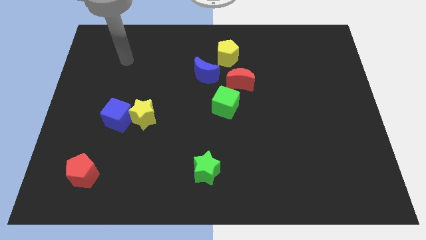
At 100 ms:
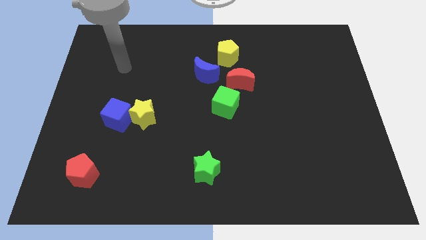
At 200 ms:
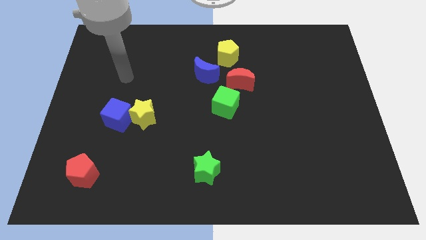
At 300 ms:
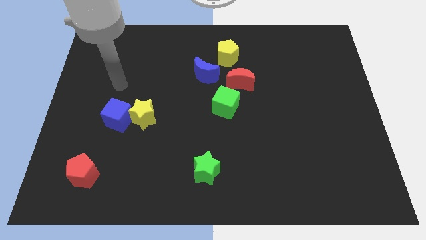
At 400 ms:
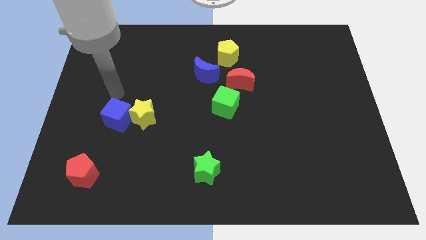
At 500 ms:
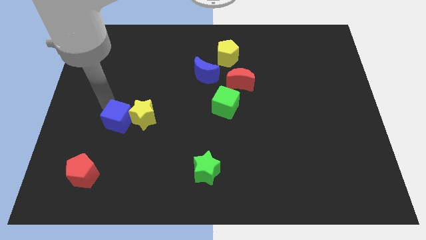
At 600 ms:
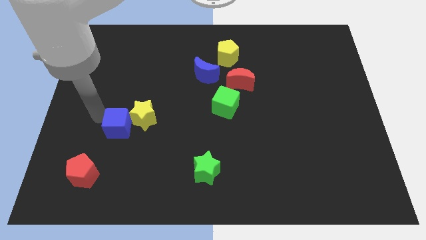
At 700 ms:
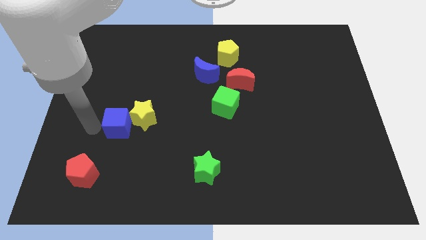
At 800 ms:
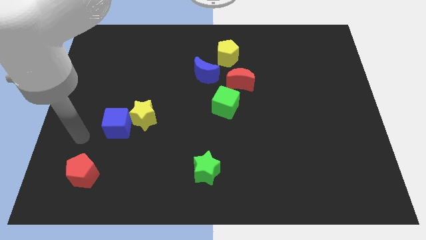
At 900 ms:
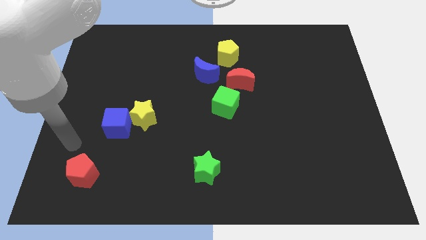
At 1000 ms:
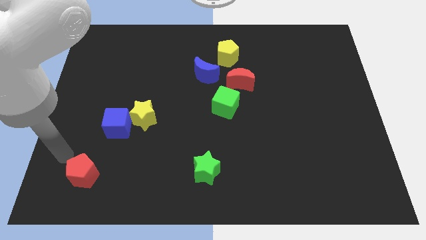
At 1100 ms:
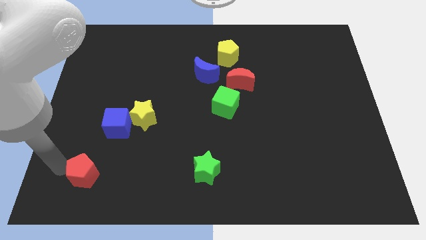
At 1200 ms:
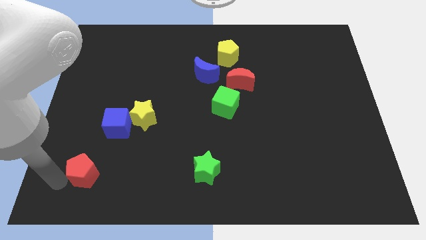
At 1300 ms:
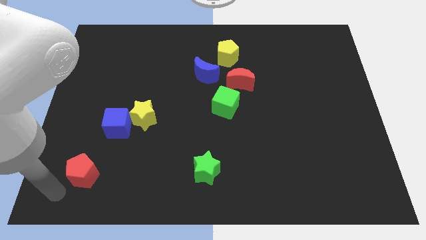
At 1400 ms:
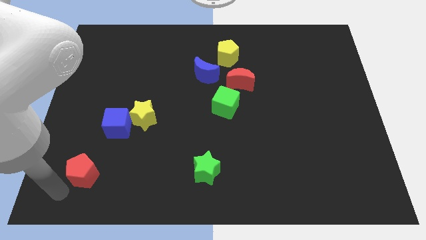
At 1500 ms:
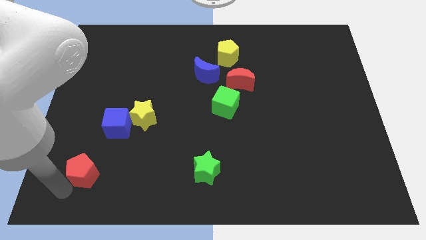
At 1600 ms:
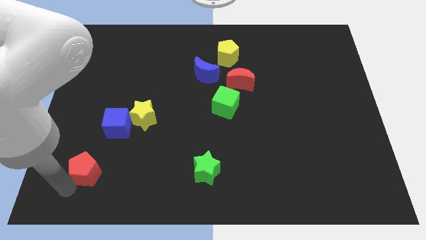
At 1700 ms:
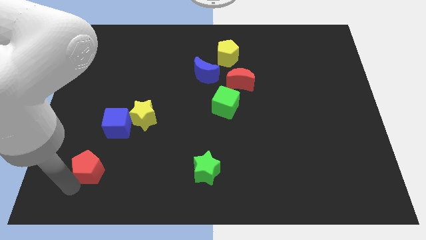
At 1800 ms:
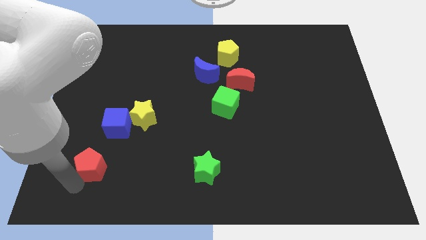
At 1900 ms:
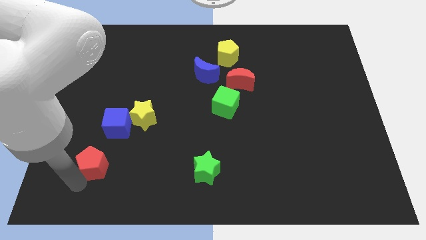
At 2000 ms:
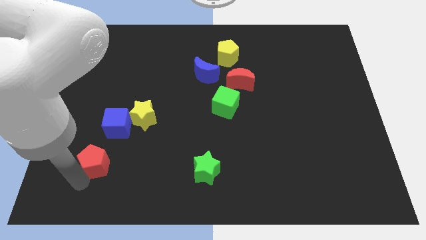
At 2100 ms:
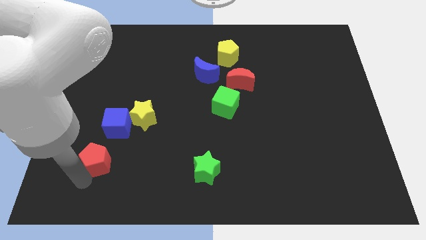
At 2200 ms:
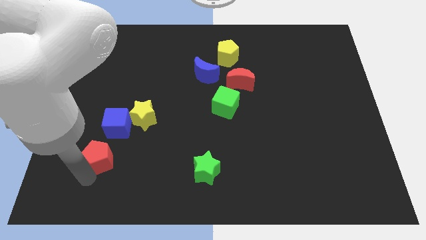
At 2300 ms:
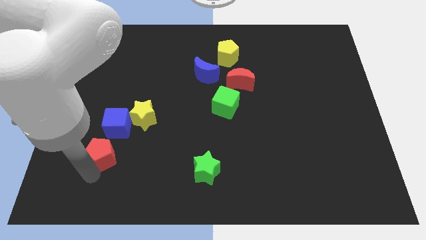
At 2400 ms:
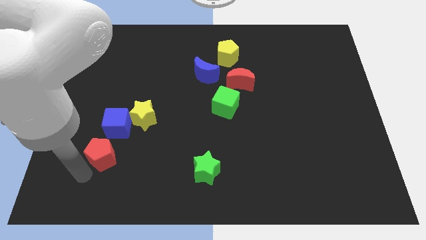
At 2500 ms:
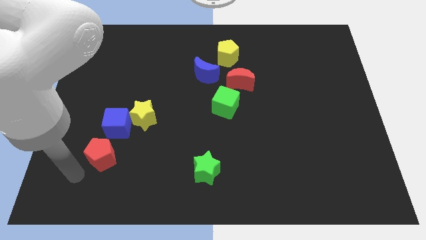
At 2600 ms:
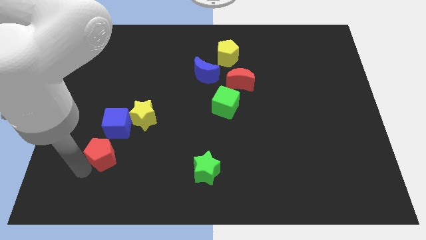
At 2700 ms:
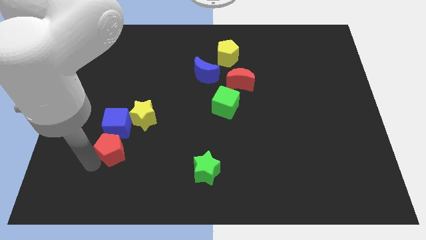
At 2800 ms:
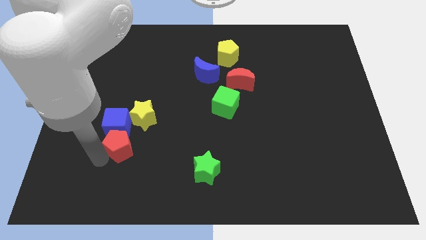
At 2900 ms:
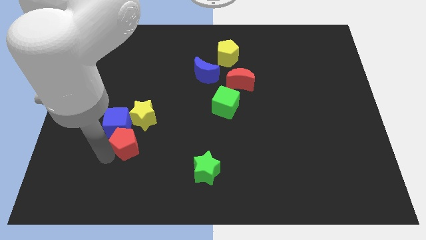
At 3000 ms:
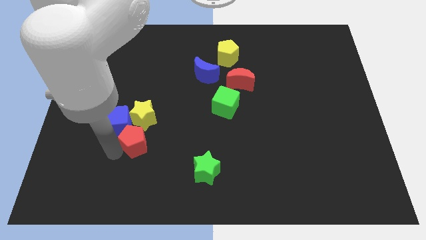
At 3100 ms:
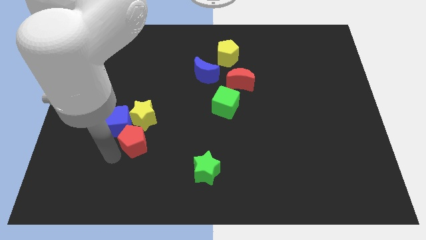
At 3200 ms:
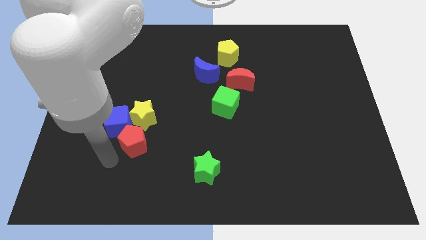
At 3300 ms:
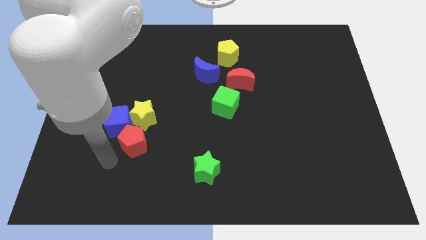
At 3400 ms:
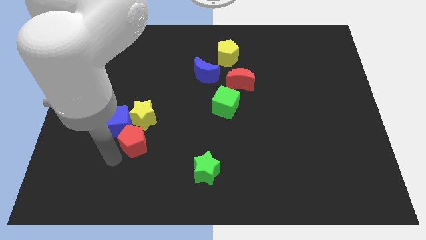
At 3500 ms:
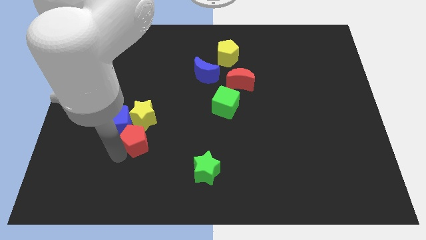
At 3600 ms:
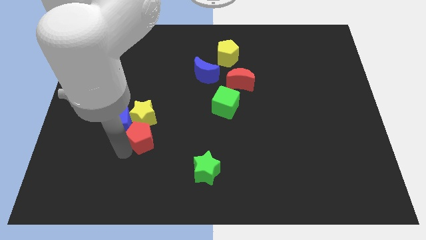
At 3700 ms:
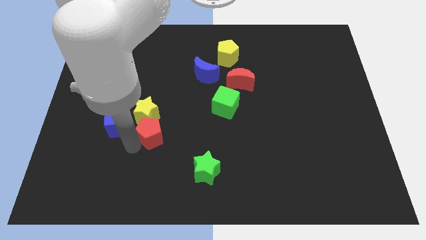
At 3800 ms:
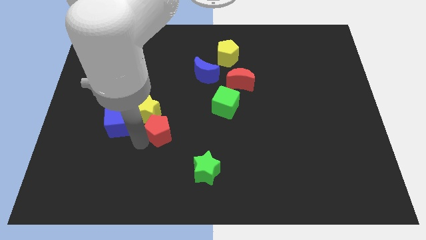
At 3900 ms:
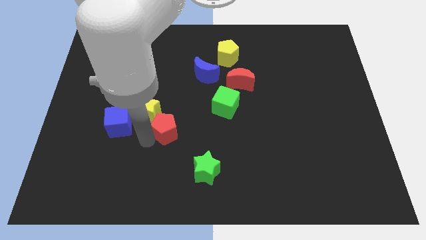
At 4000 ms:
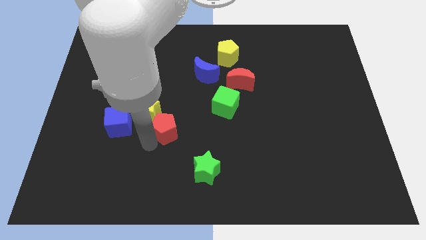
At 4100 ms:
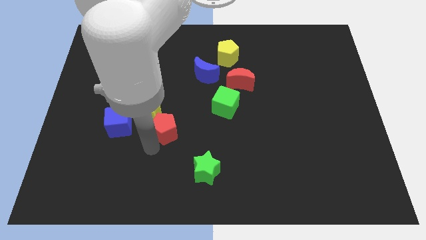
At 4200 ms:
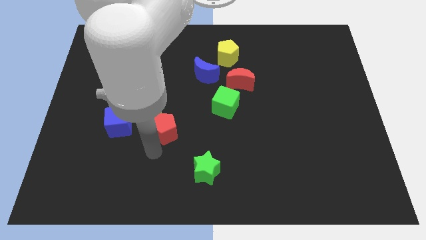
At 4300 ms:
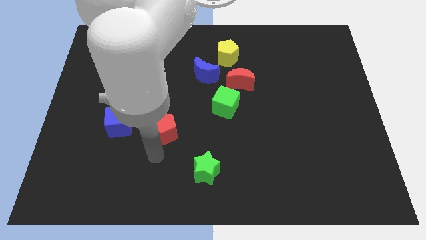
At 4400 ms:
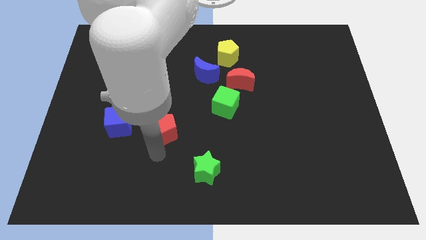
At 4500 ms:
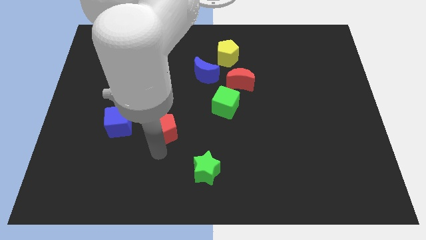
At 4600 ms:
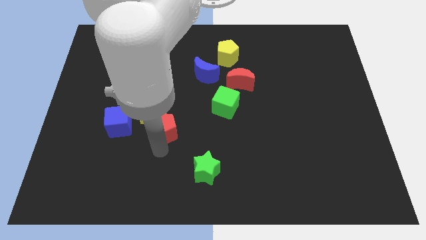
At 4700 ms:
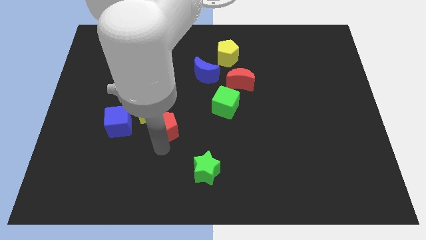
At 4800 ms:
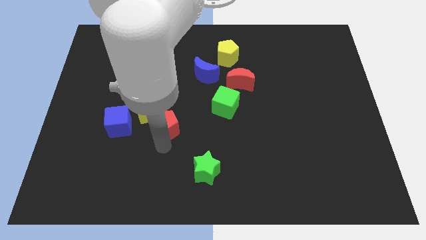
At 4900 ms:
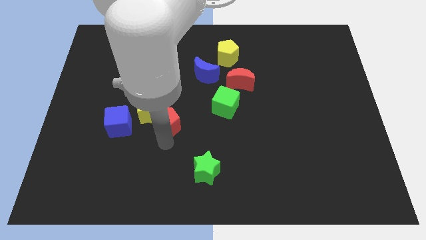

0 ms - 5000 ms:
push the red pentagon diagonally up and to the right

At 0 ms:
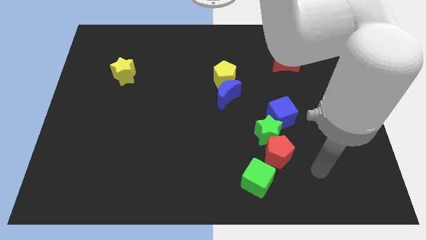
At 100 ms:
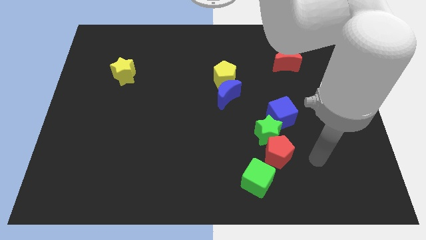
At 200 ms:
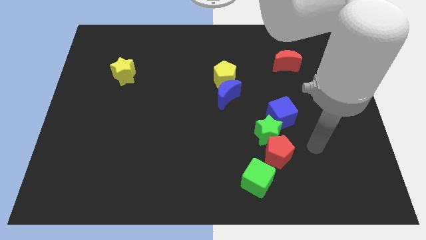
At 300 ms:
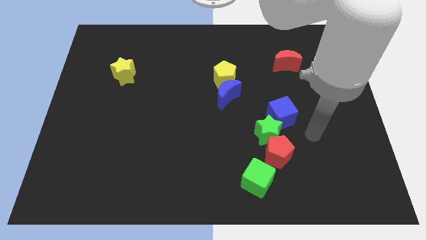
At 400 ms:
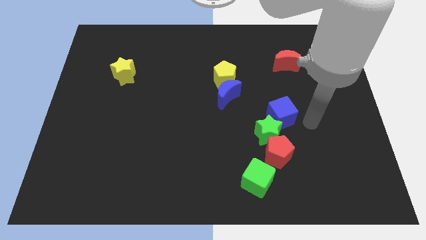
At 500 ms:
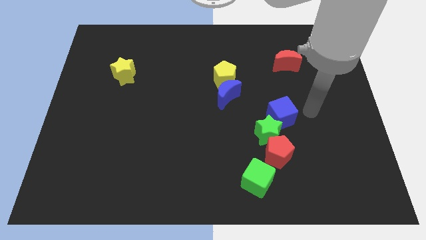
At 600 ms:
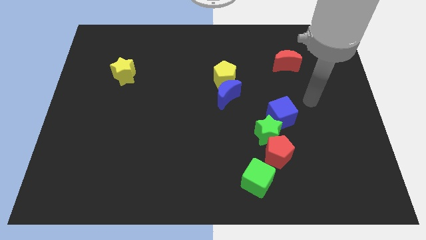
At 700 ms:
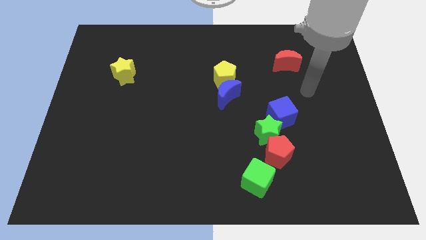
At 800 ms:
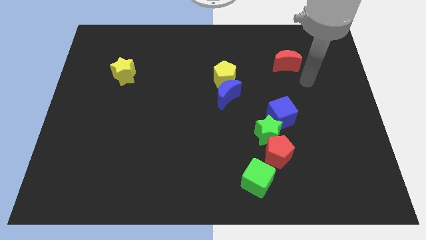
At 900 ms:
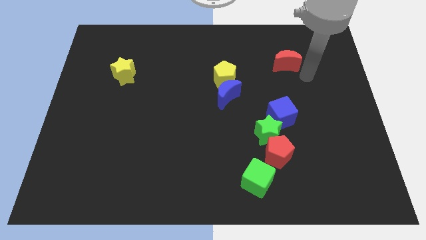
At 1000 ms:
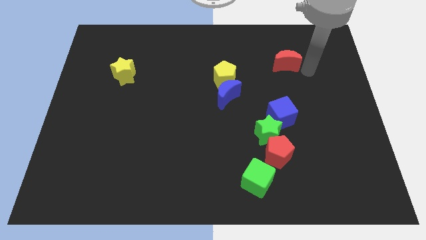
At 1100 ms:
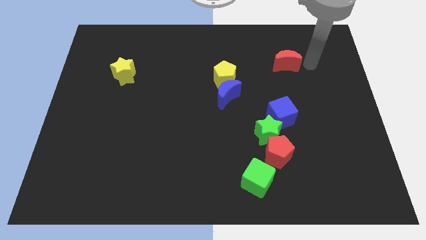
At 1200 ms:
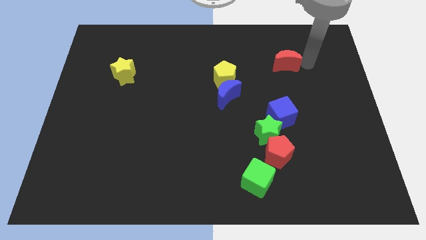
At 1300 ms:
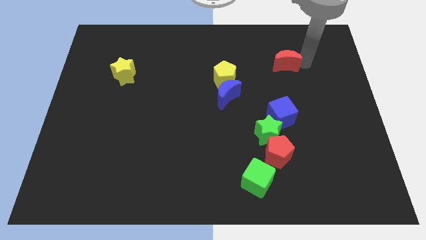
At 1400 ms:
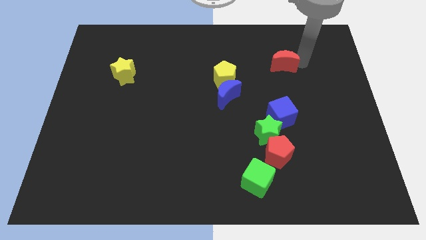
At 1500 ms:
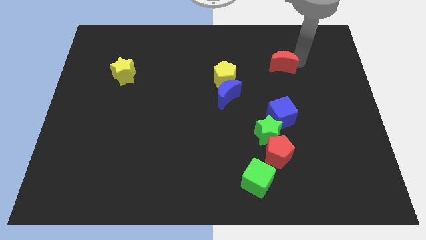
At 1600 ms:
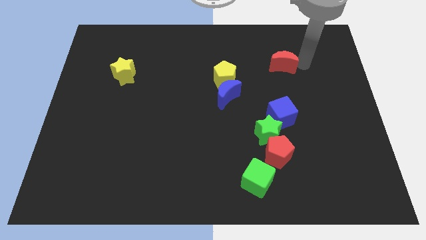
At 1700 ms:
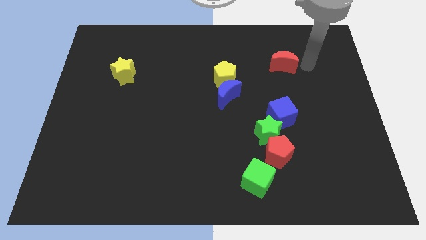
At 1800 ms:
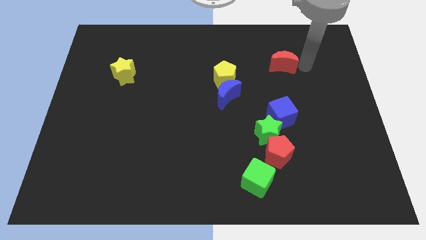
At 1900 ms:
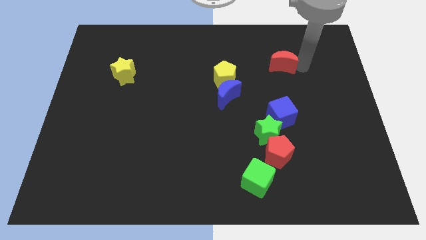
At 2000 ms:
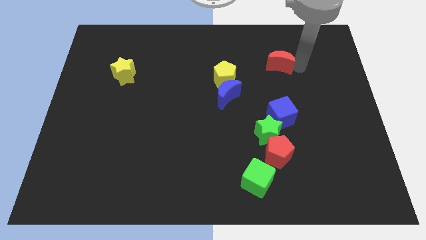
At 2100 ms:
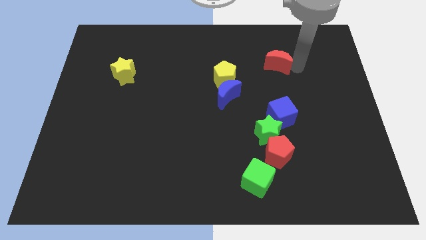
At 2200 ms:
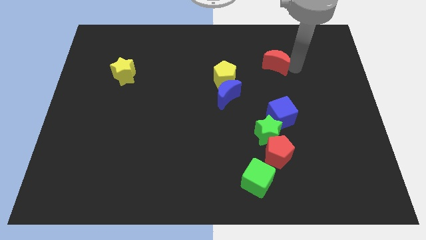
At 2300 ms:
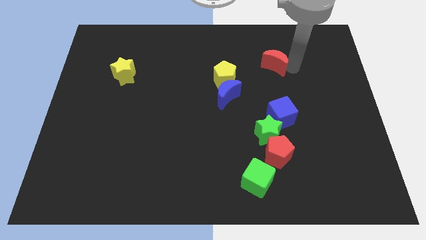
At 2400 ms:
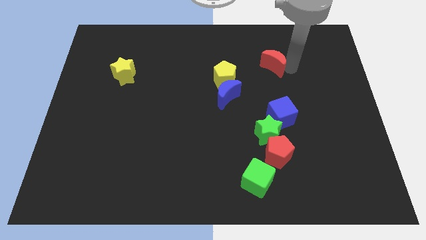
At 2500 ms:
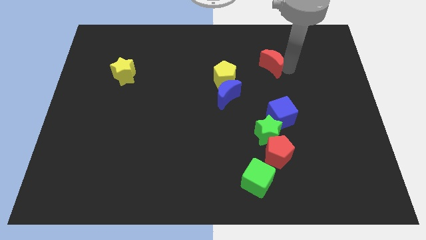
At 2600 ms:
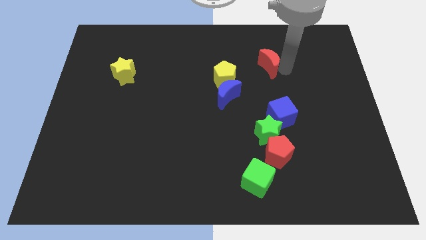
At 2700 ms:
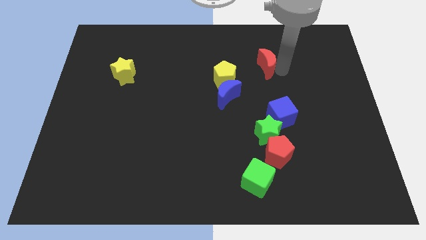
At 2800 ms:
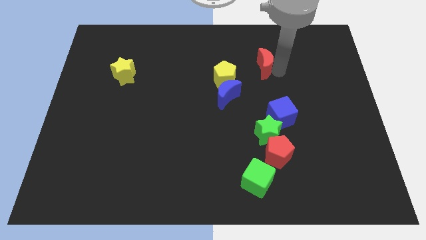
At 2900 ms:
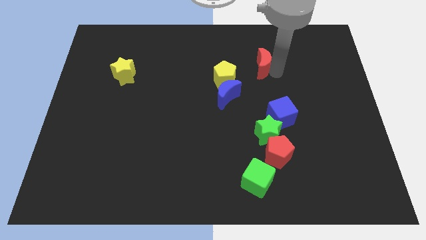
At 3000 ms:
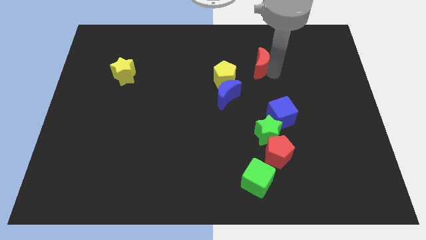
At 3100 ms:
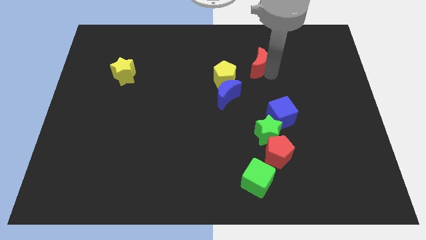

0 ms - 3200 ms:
push the red moon to the left a little bit
